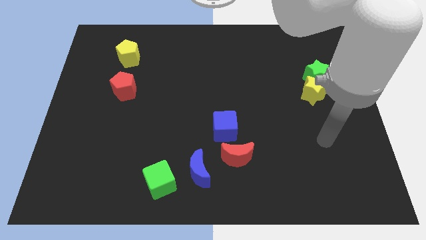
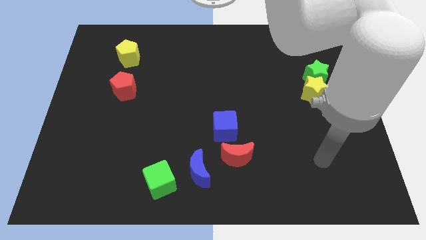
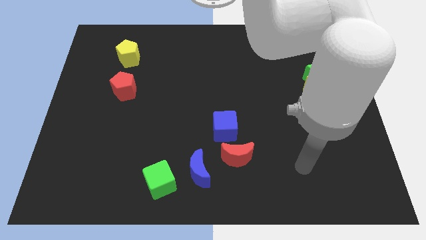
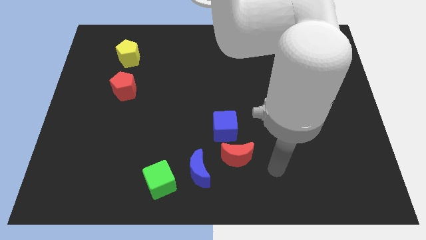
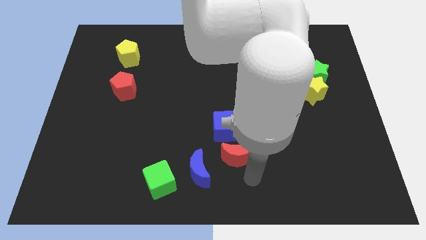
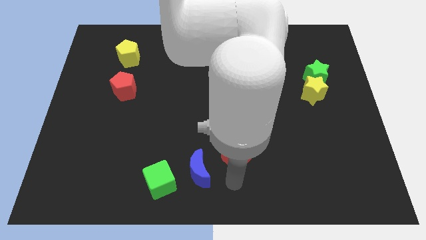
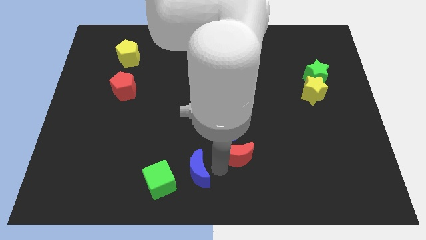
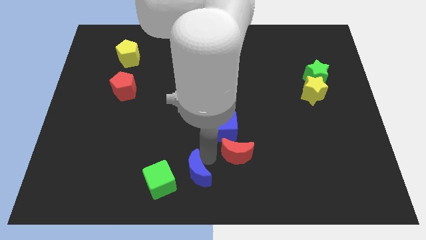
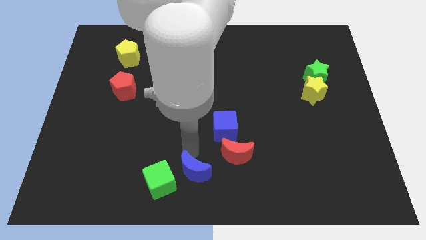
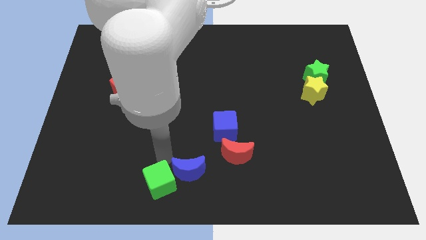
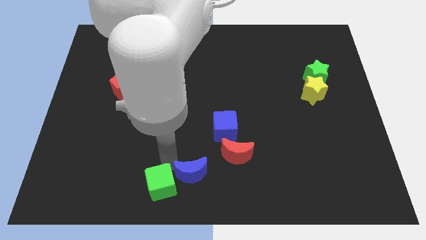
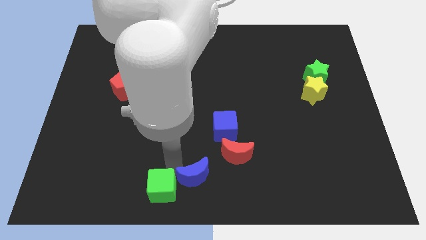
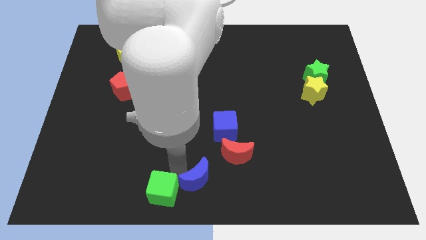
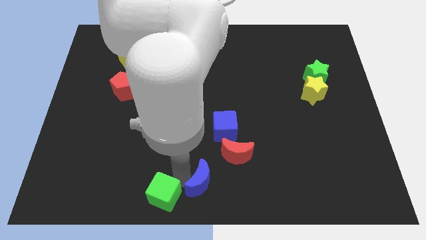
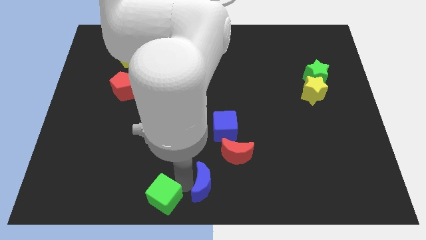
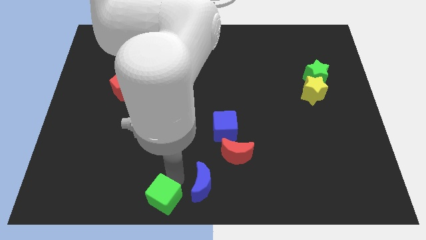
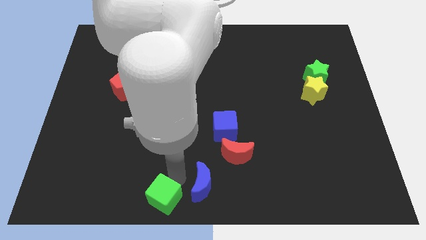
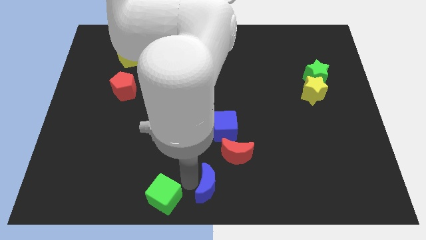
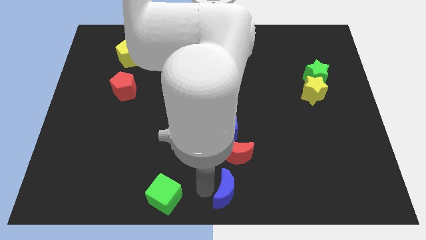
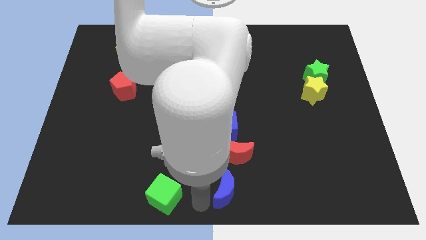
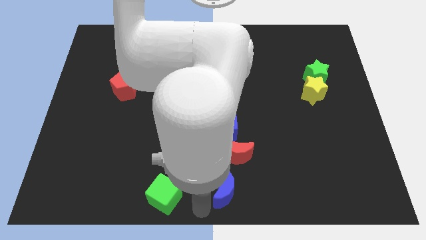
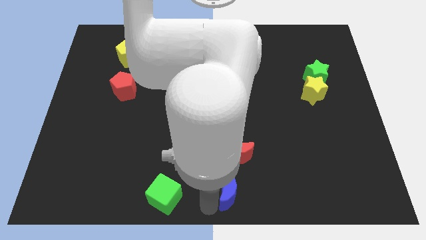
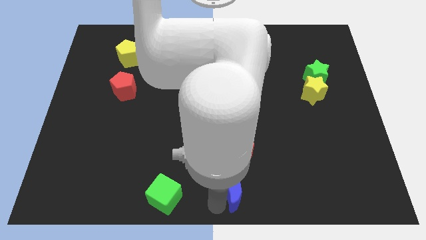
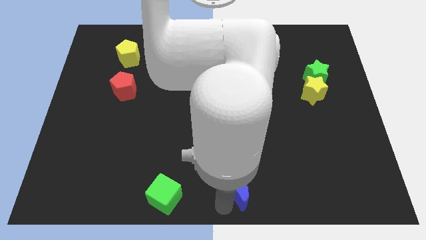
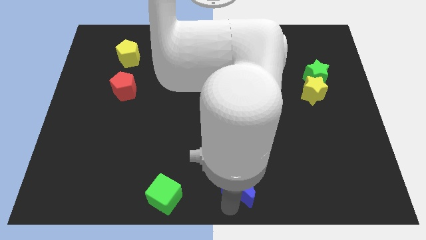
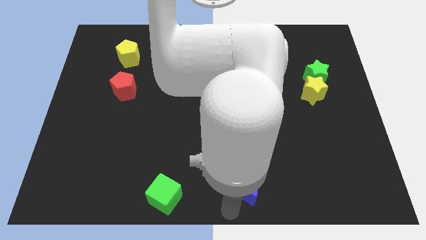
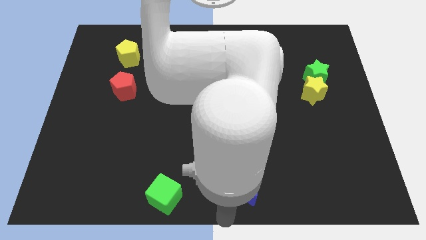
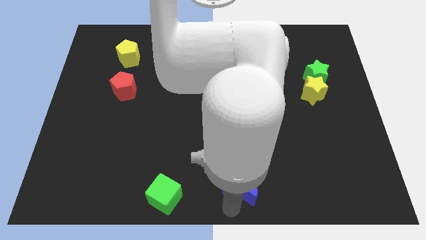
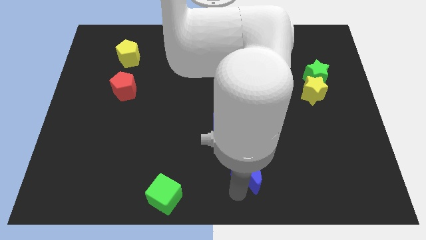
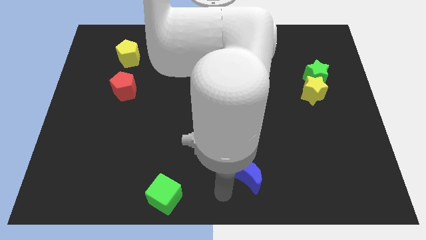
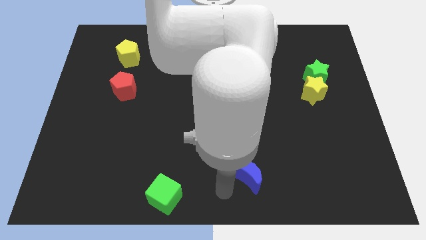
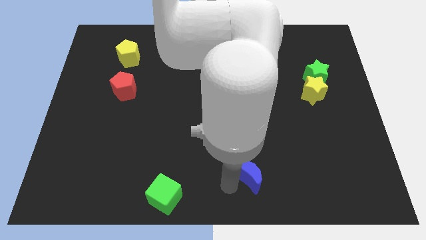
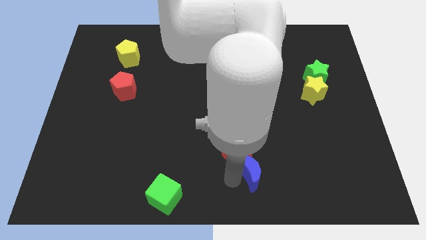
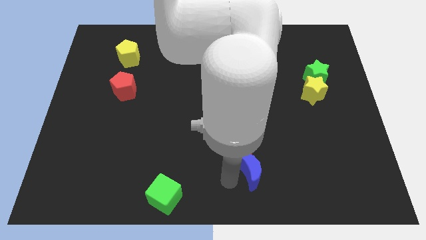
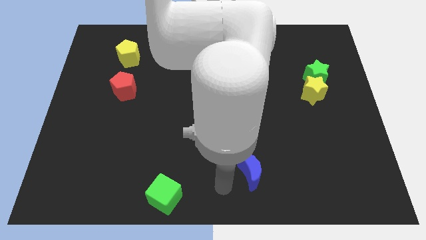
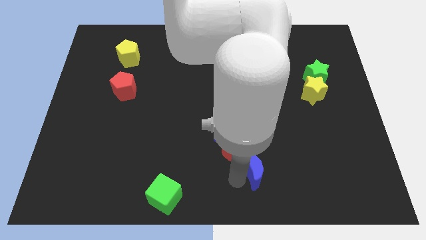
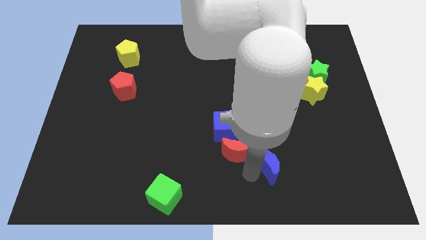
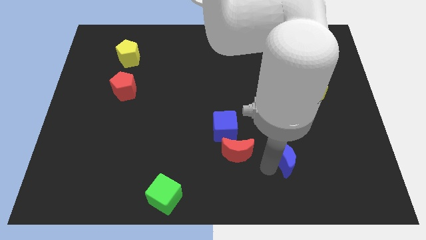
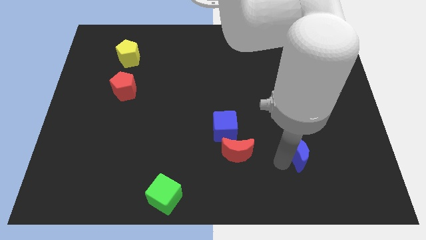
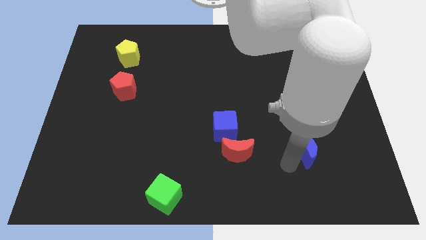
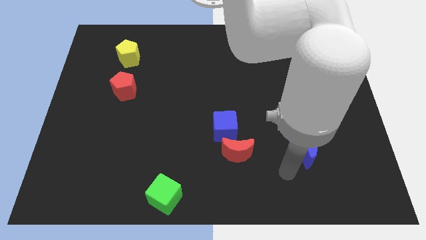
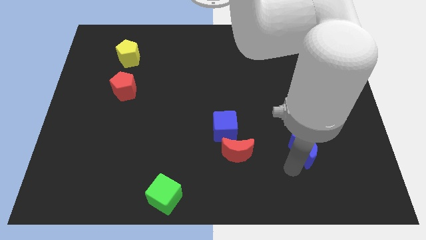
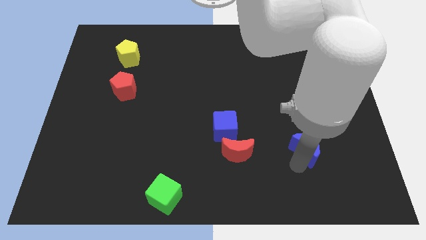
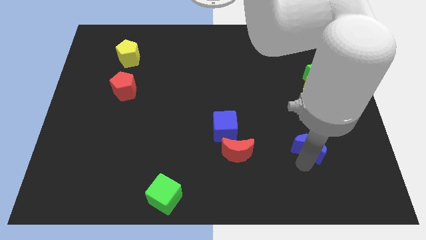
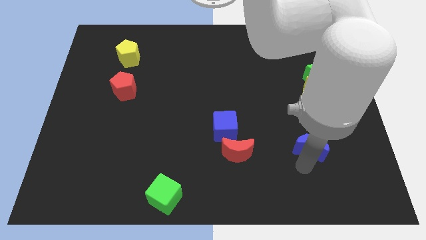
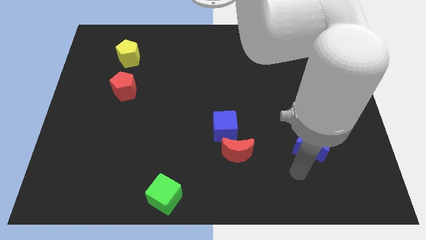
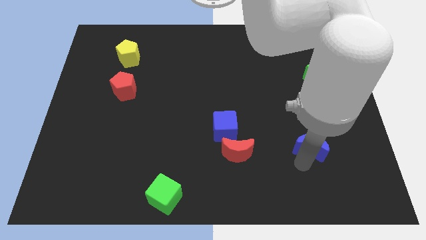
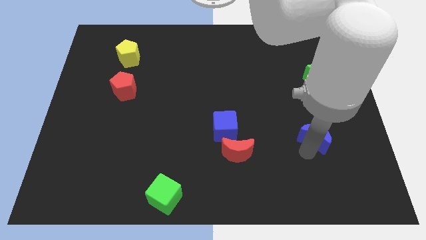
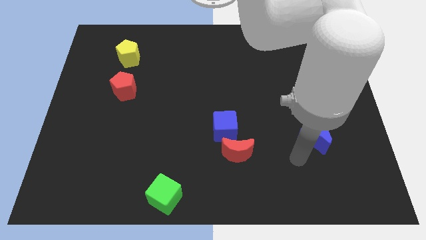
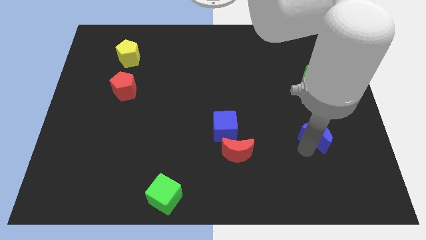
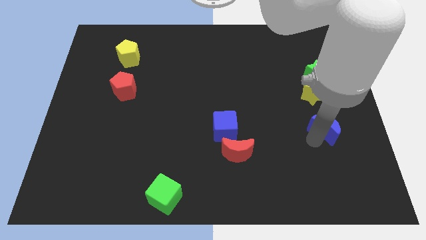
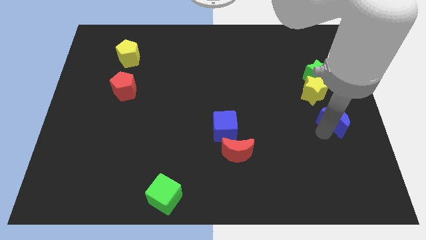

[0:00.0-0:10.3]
move the blue moon to the right side of the board
